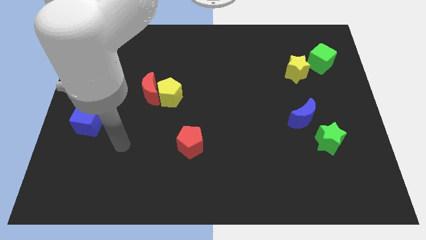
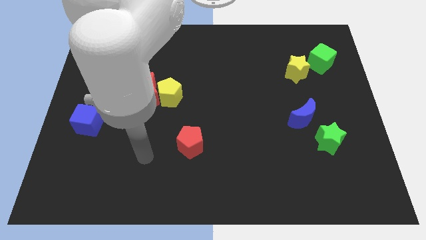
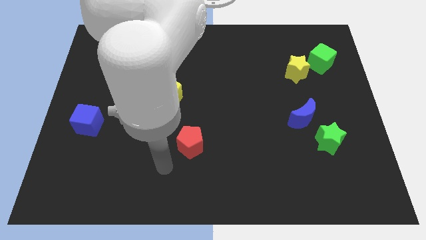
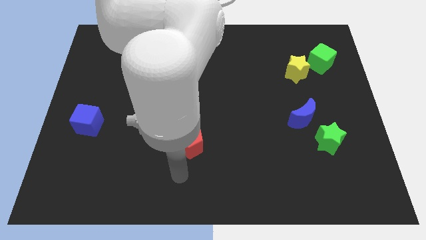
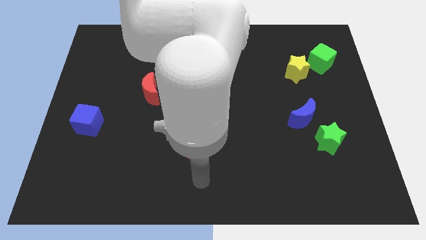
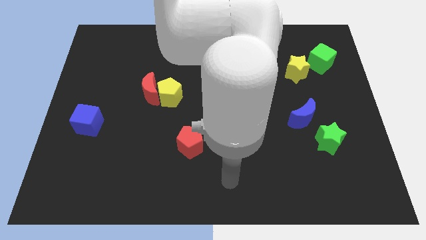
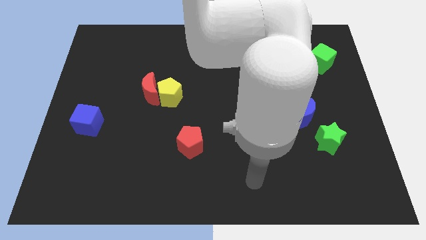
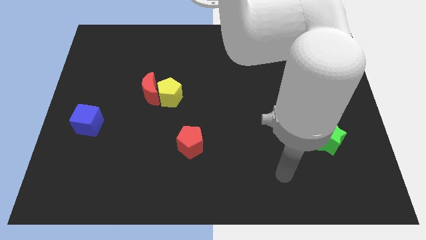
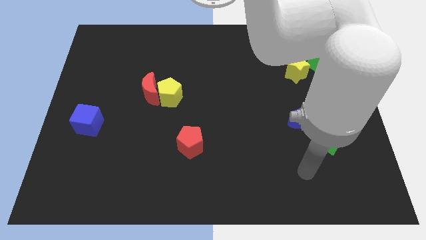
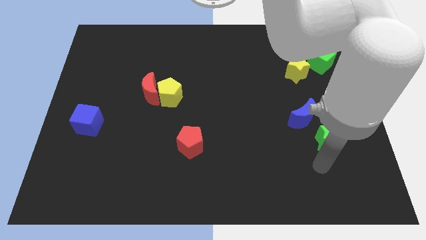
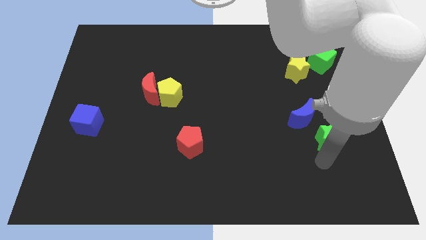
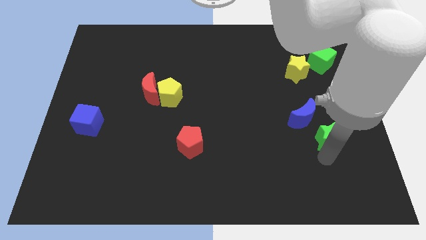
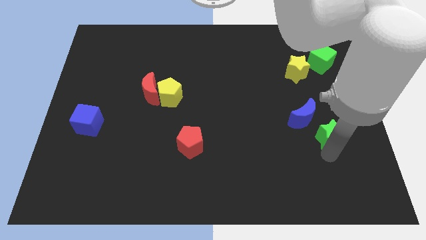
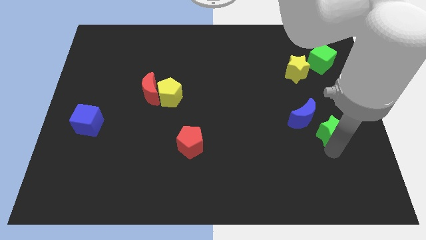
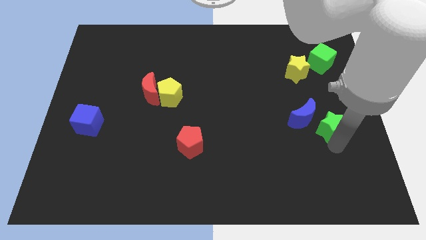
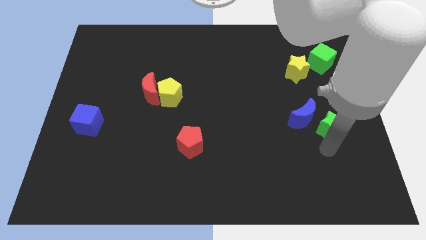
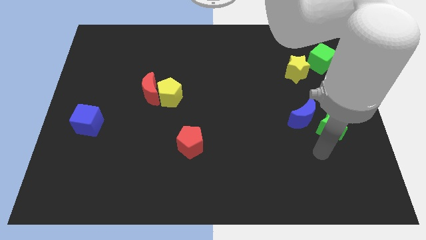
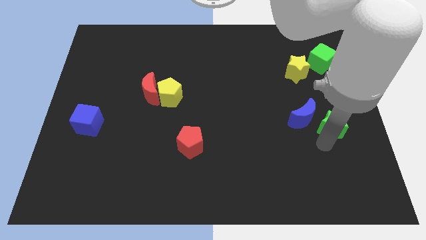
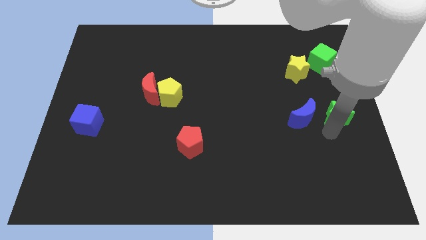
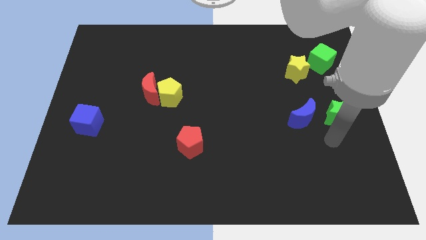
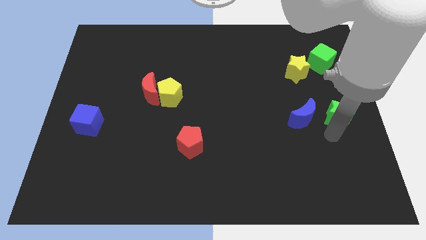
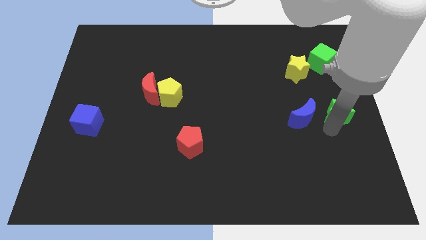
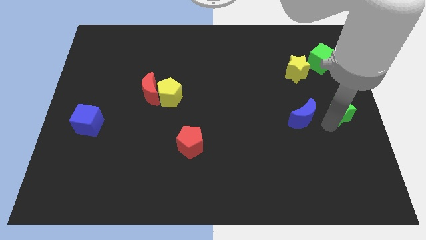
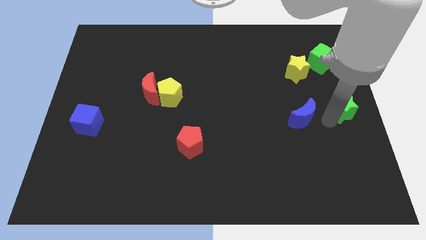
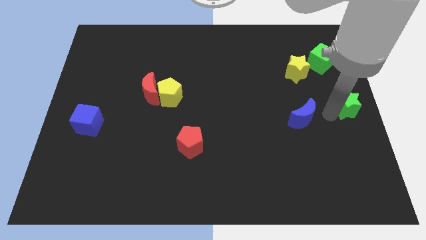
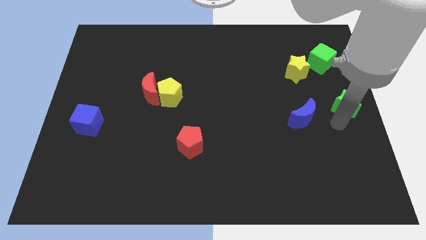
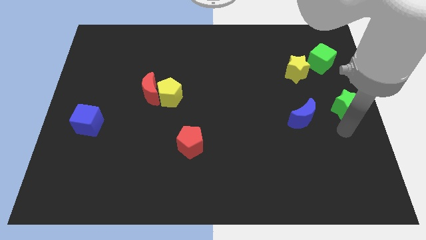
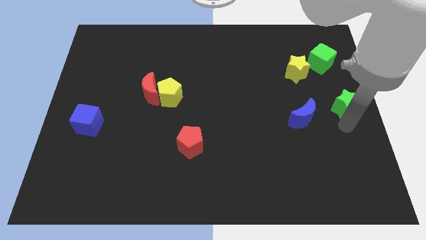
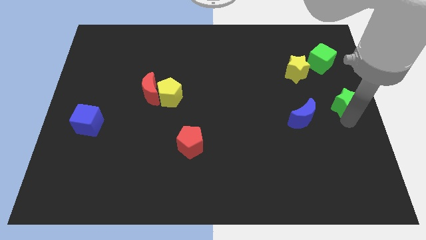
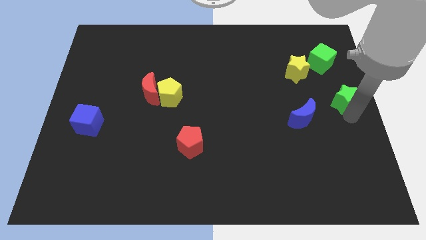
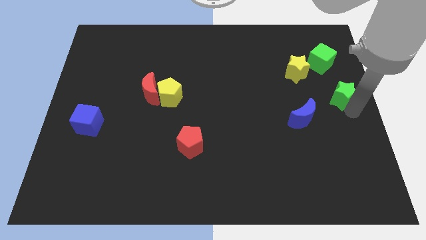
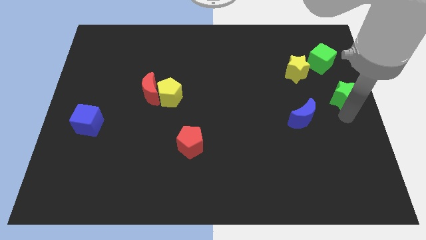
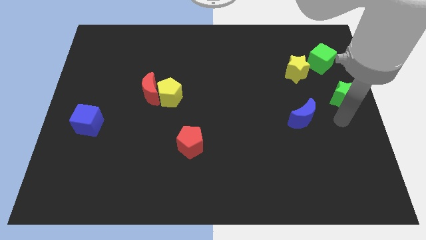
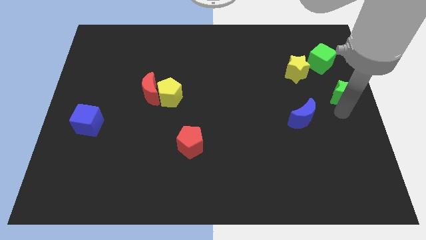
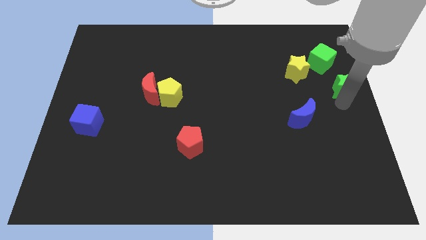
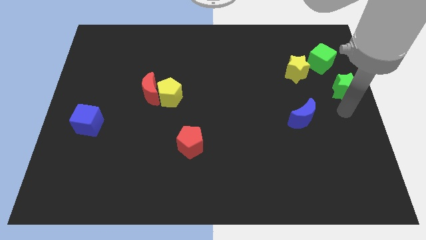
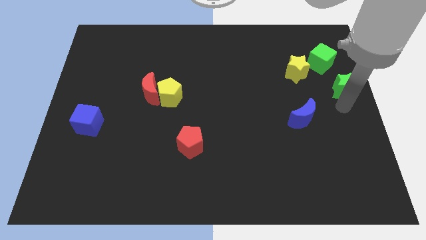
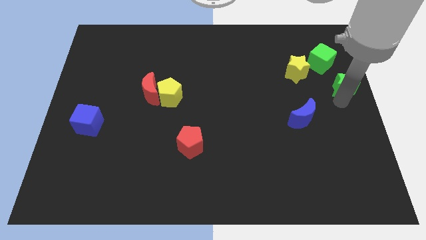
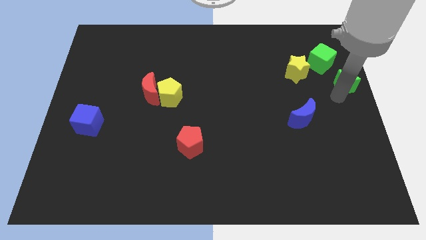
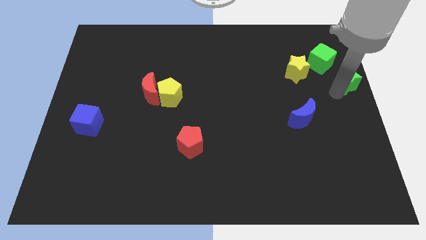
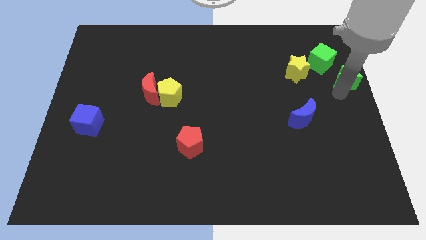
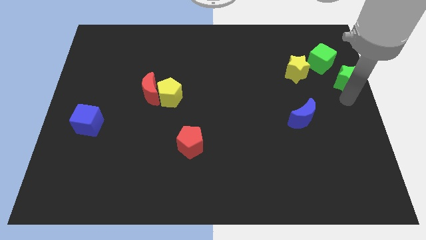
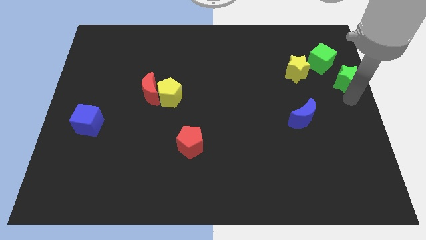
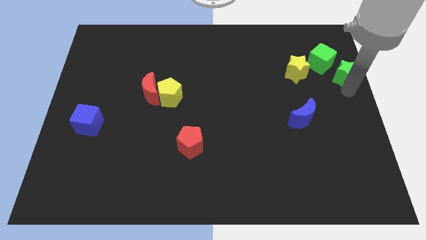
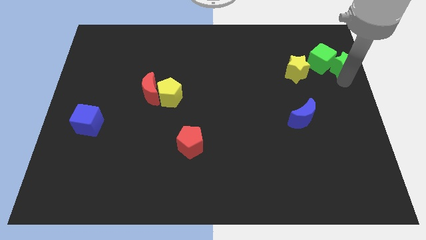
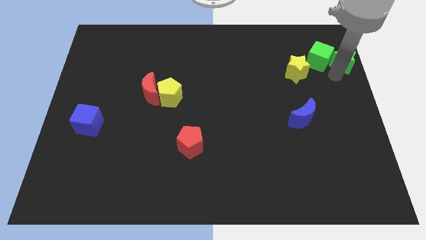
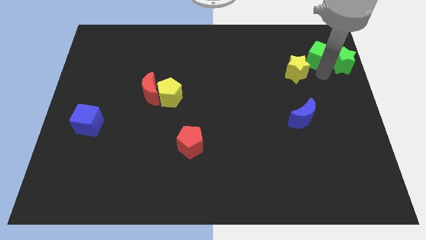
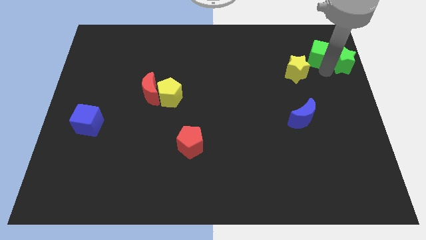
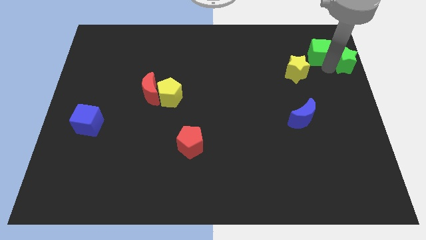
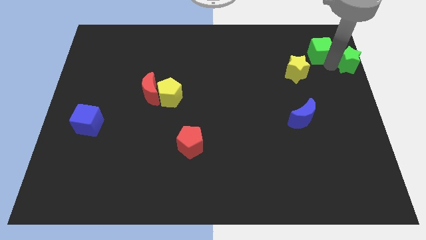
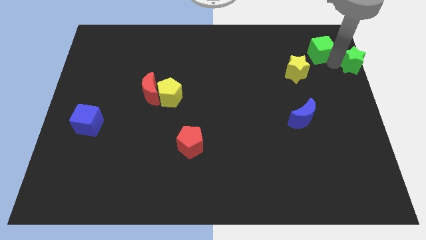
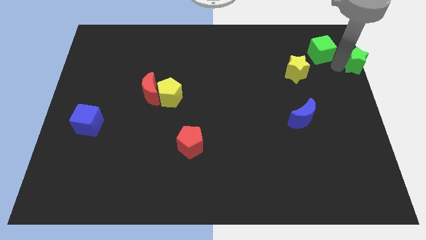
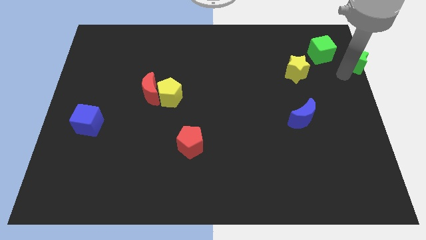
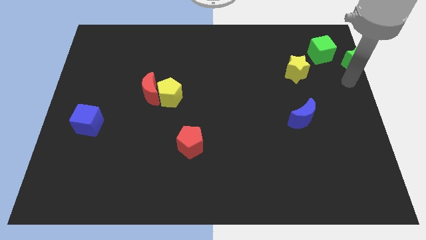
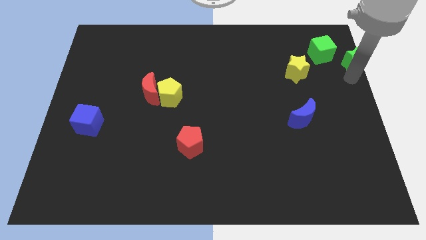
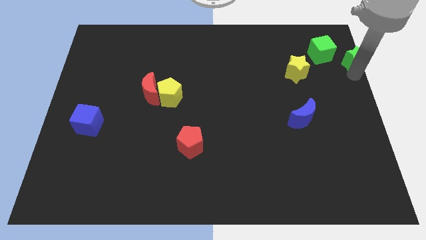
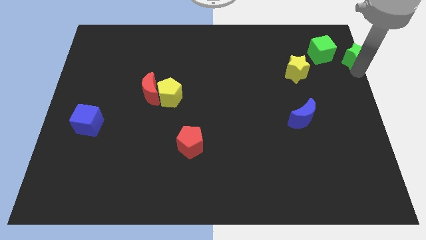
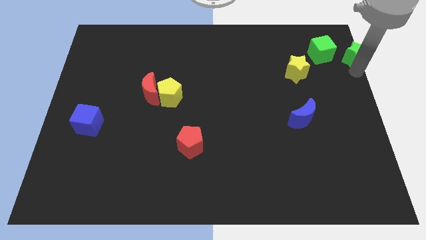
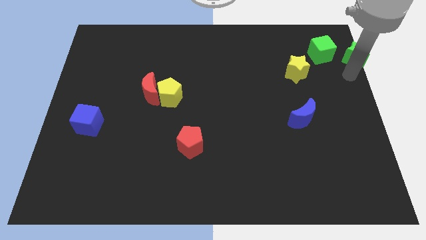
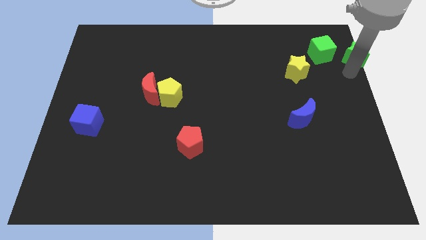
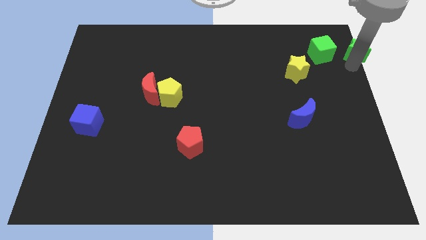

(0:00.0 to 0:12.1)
slide the green star to the top right of the board
